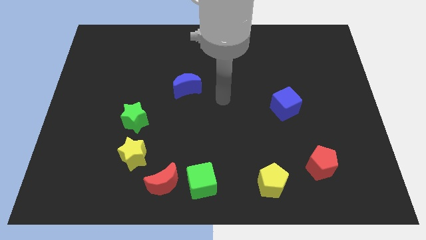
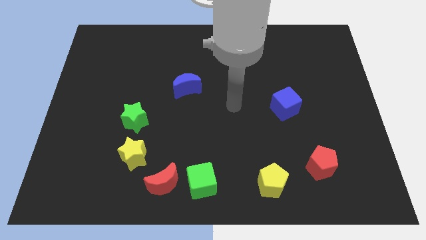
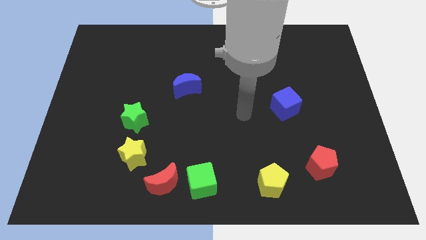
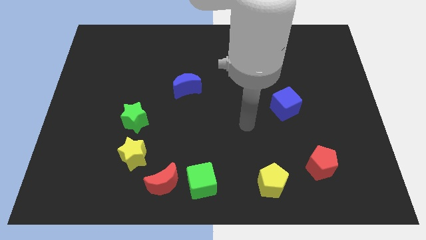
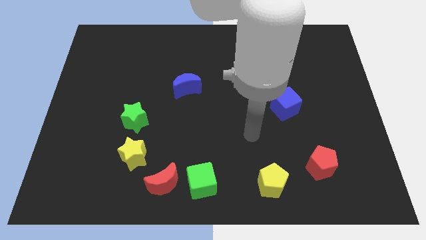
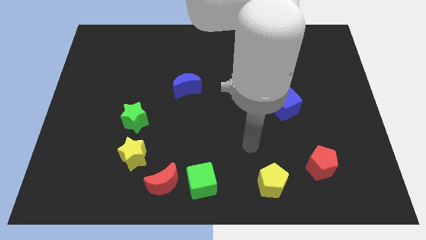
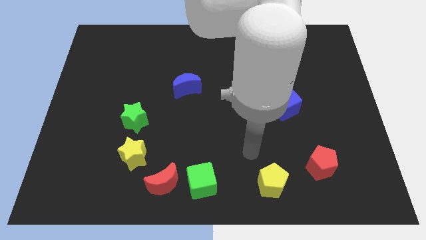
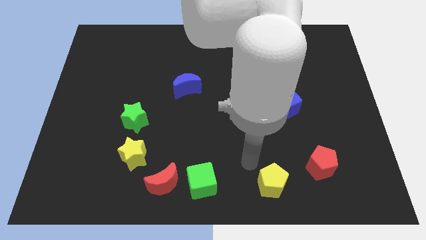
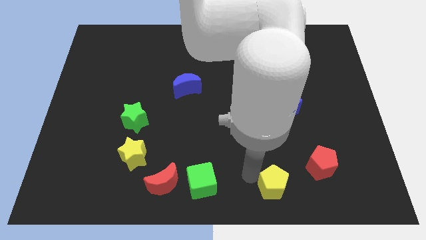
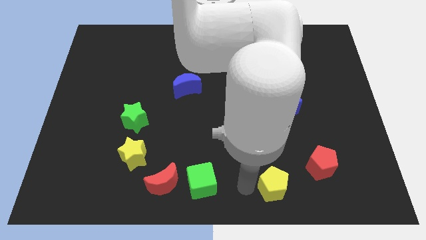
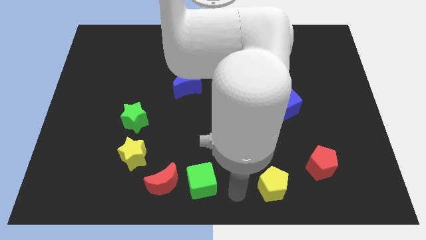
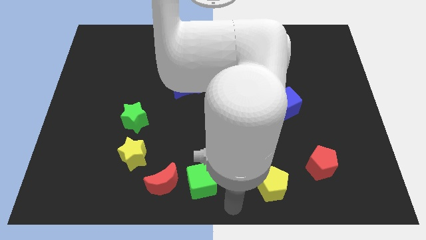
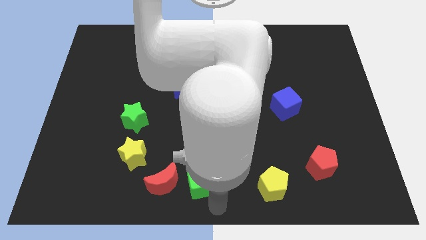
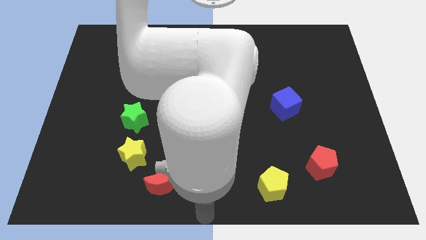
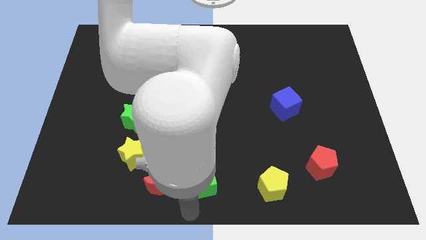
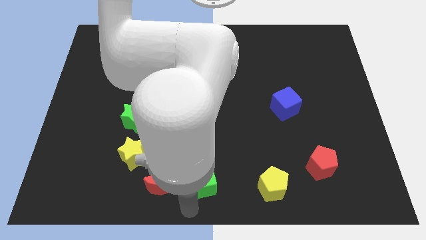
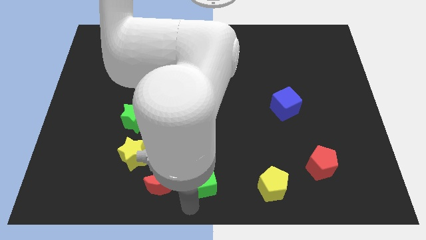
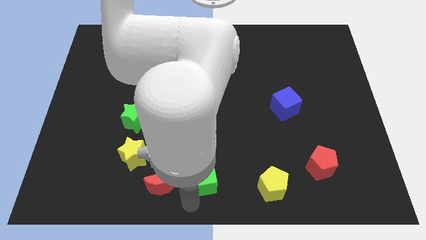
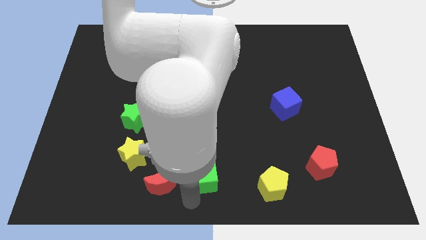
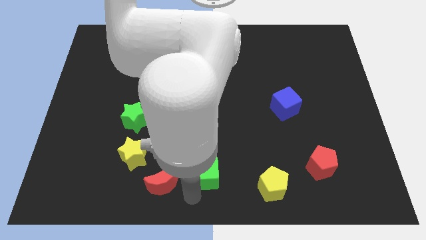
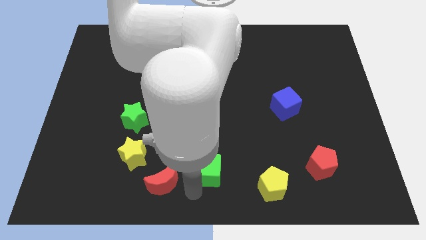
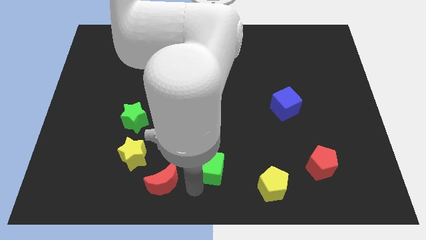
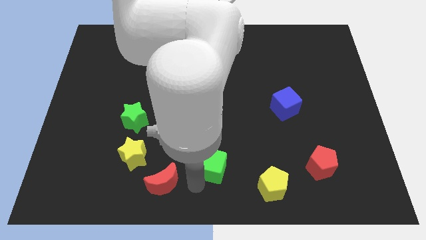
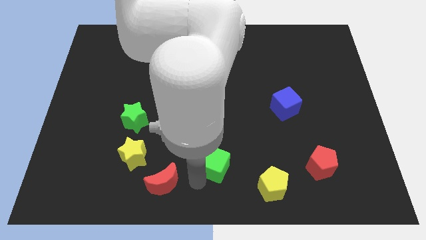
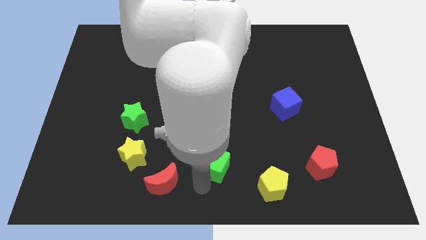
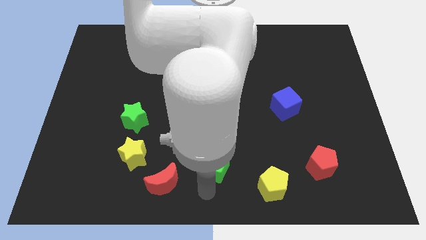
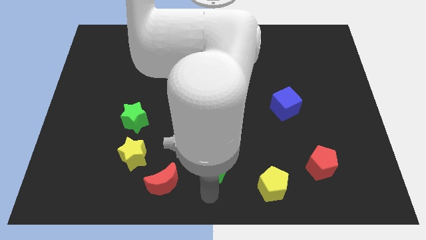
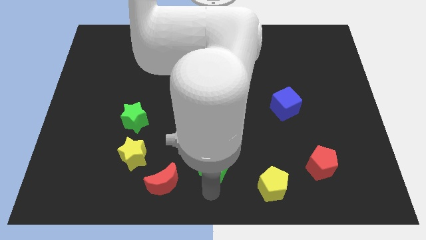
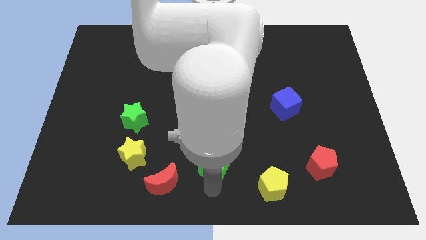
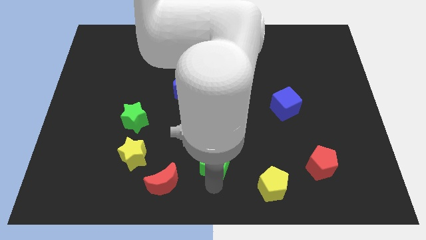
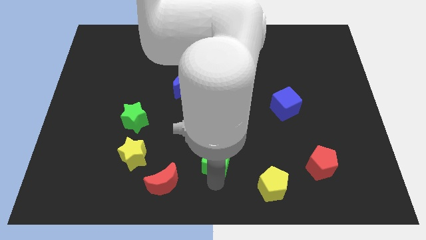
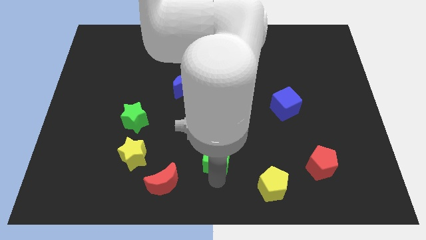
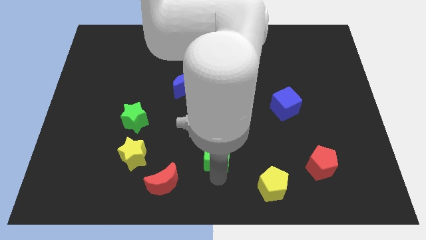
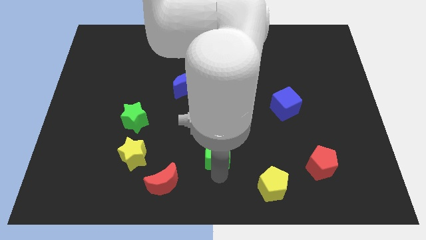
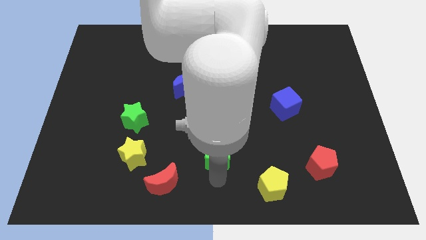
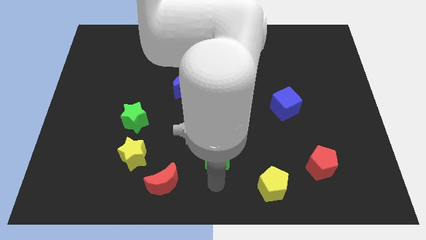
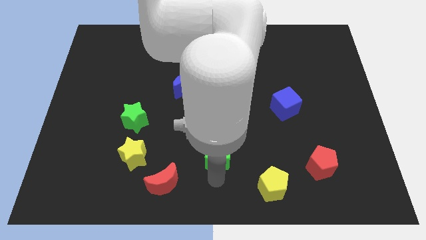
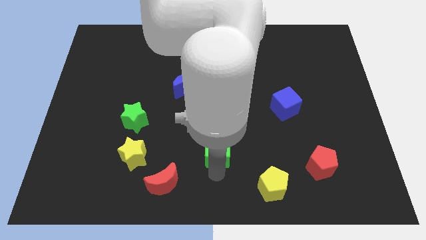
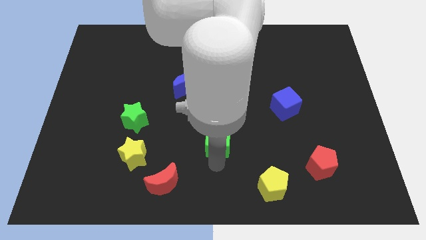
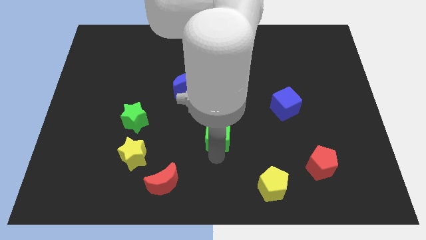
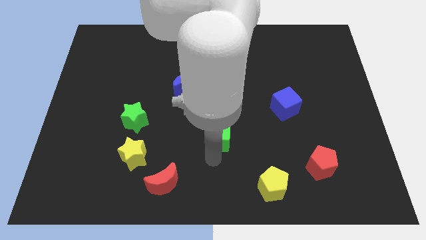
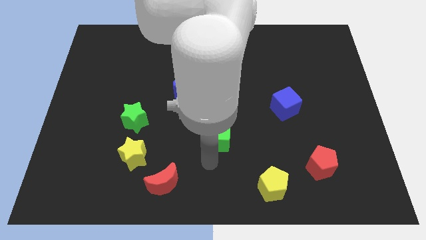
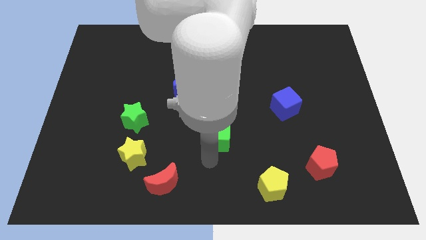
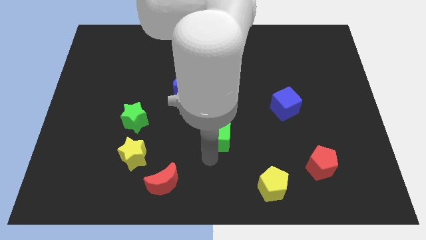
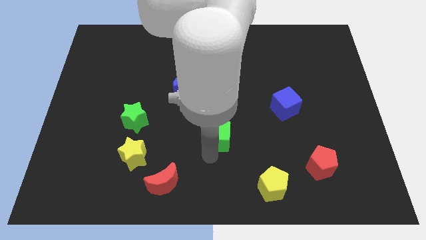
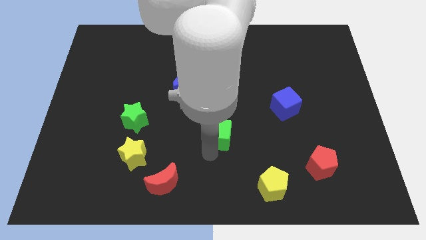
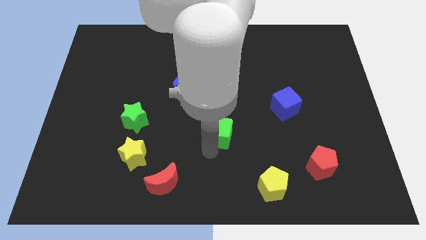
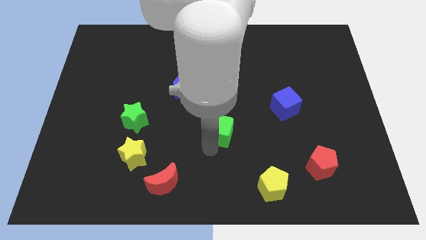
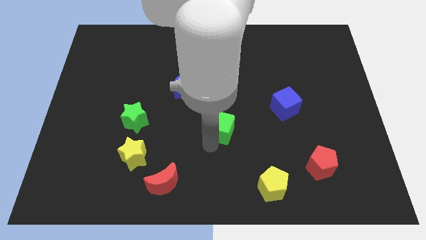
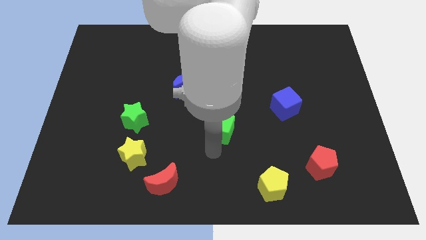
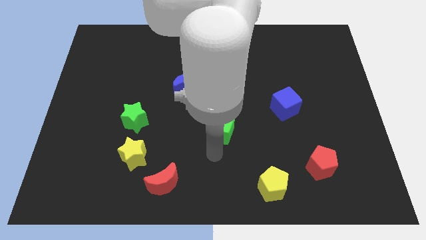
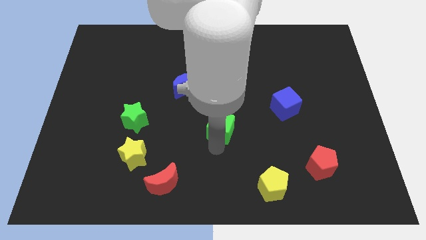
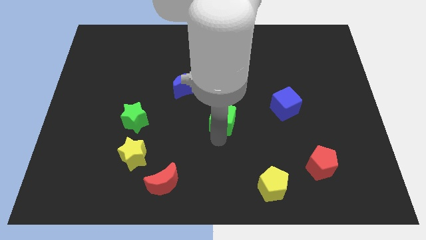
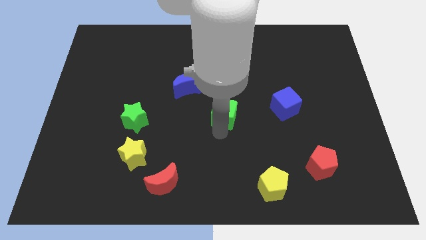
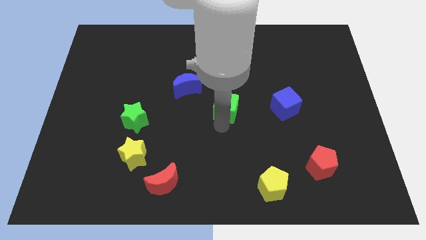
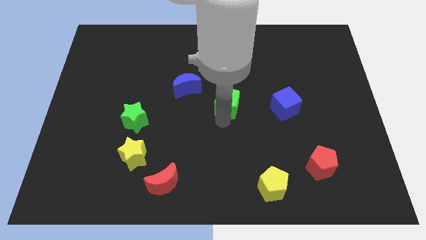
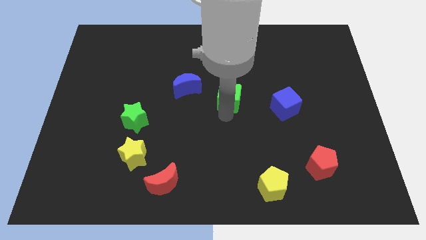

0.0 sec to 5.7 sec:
push the green cube upwards

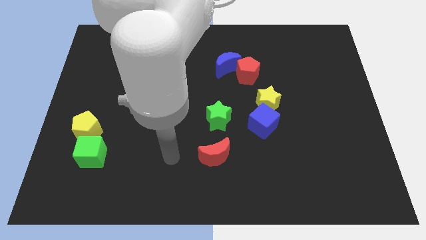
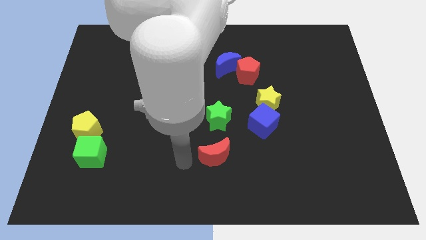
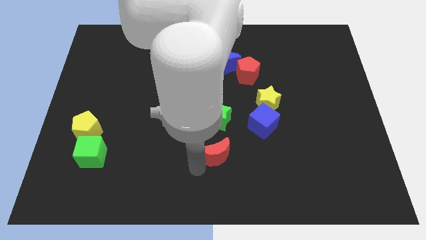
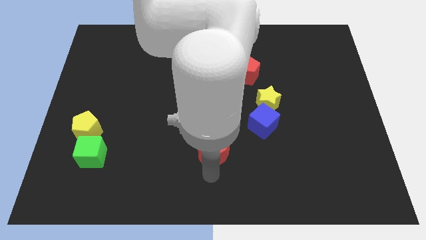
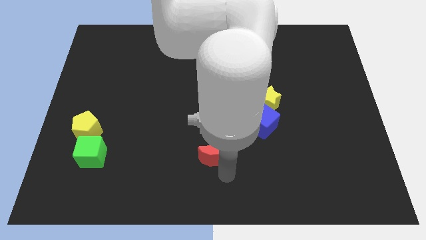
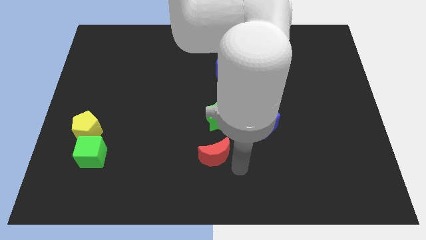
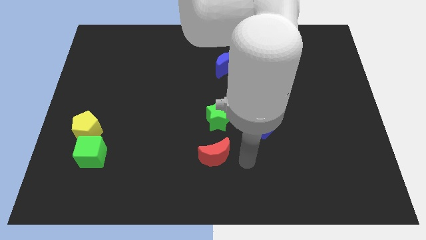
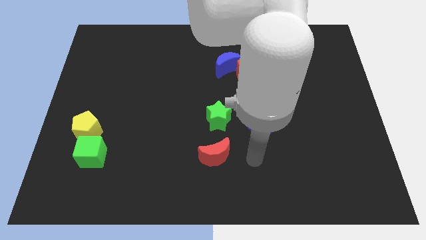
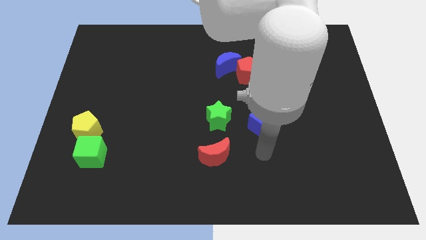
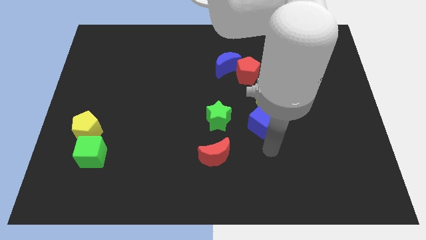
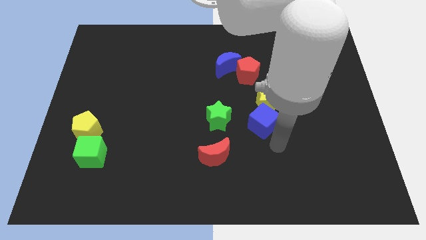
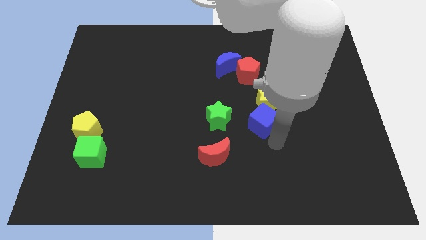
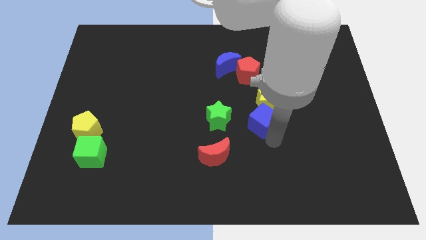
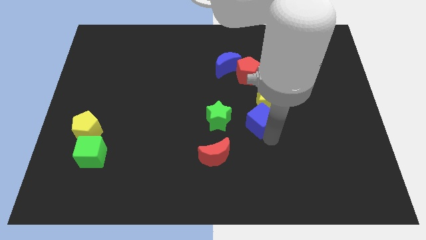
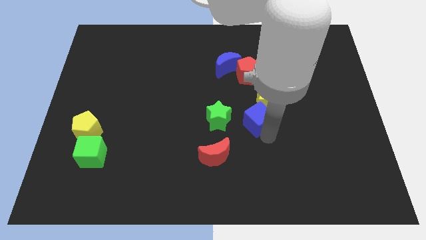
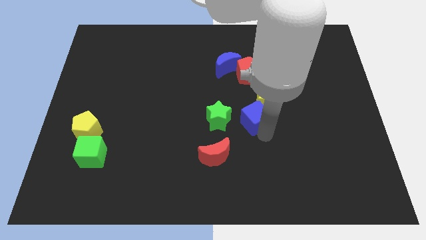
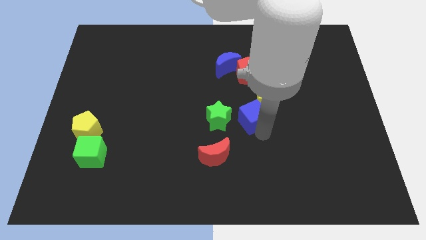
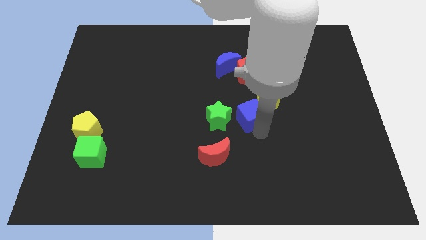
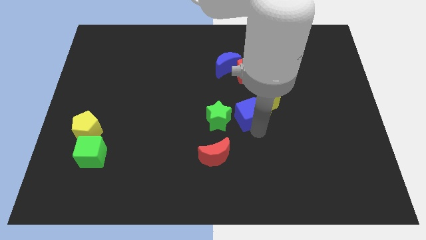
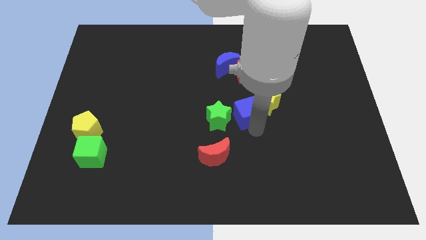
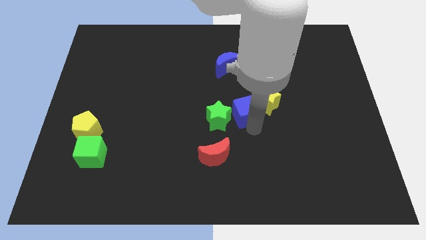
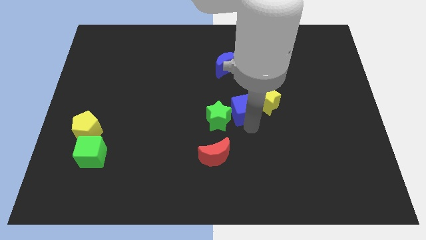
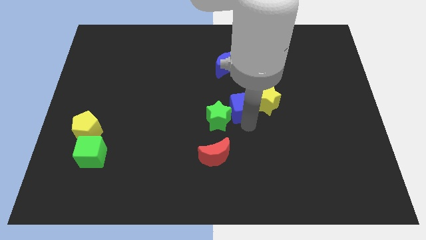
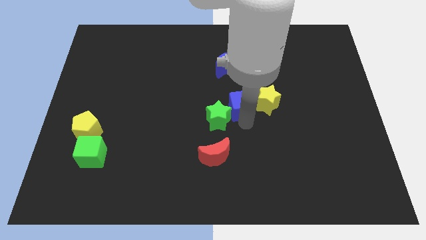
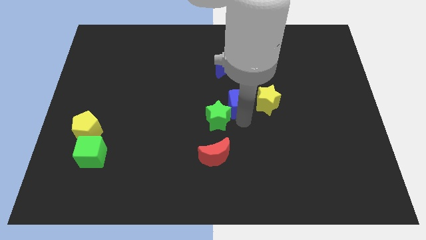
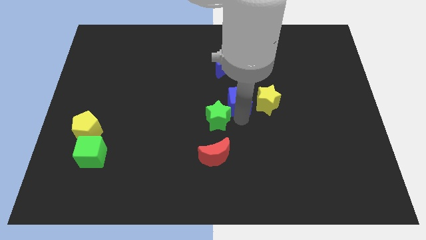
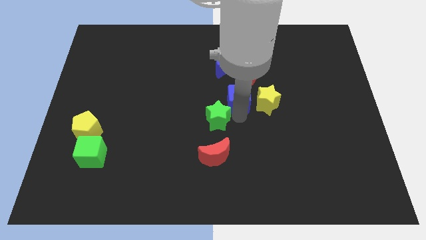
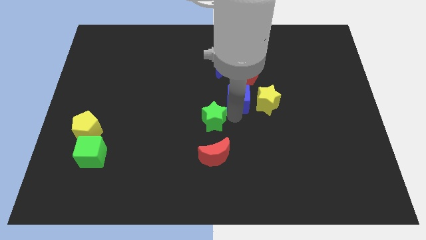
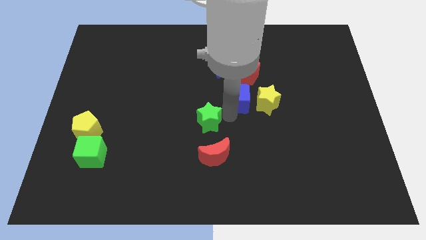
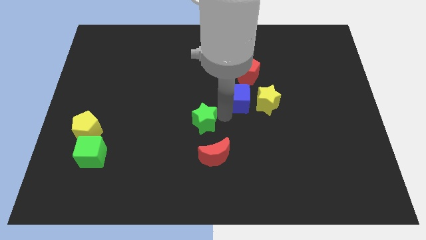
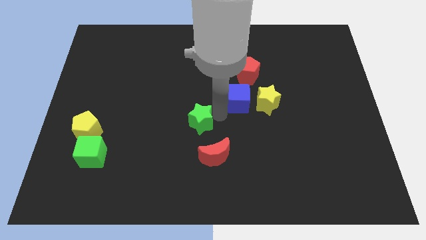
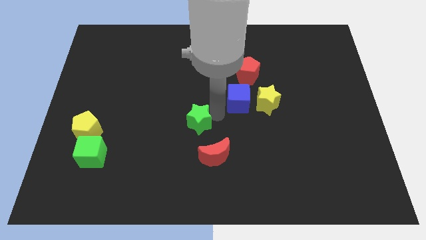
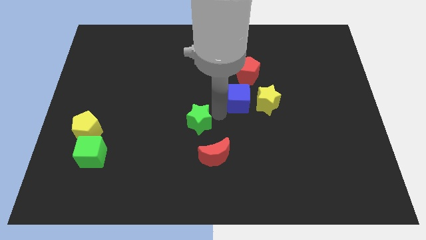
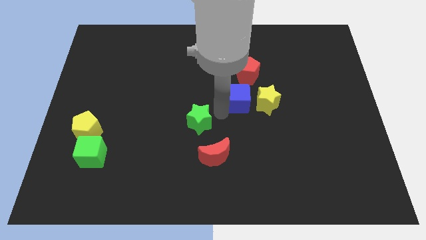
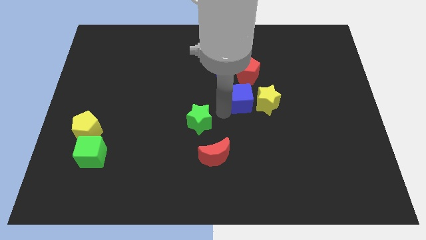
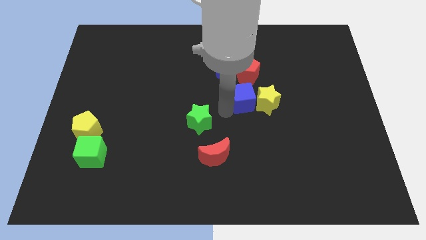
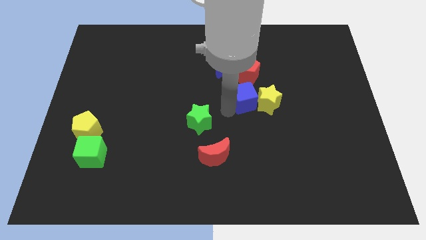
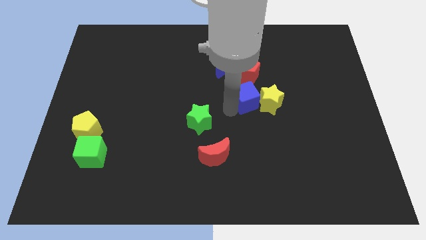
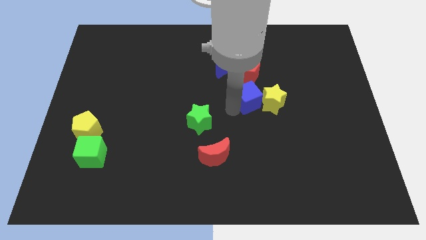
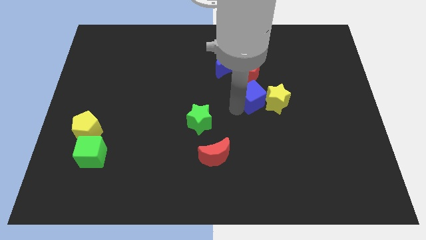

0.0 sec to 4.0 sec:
move the blue cube a little bit up
